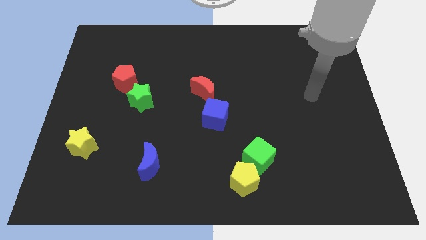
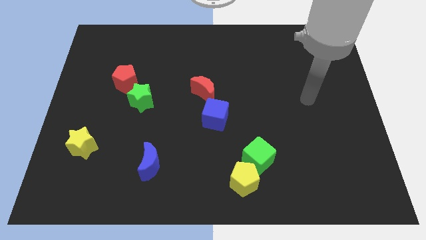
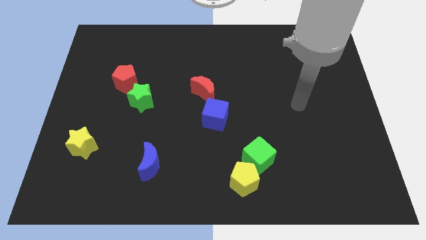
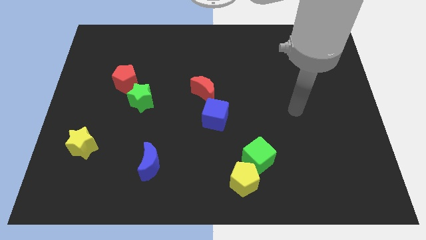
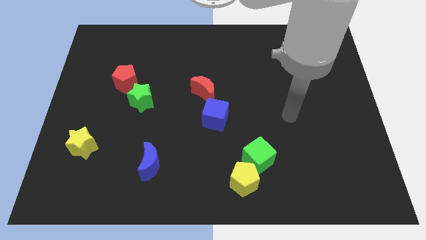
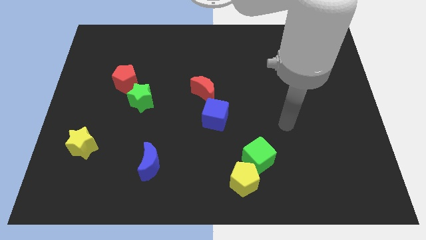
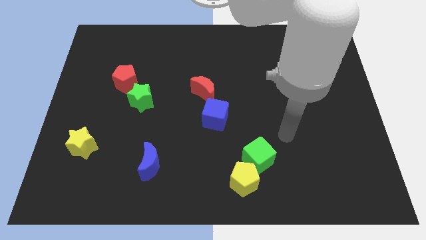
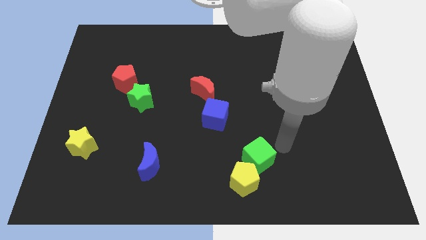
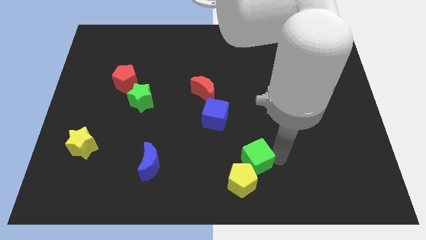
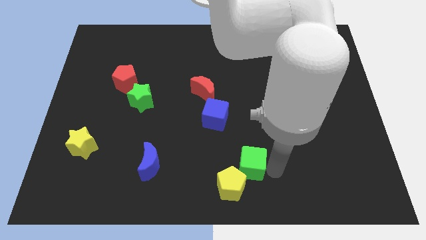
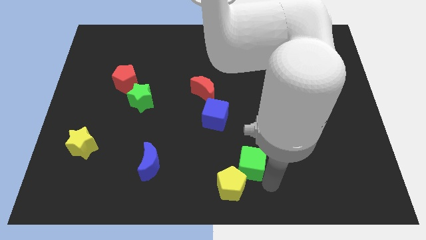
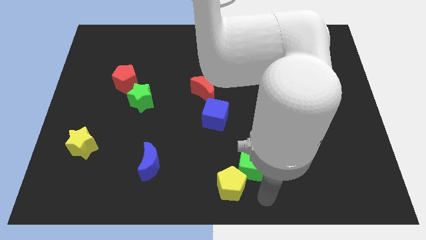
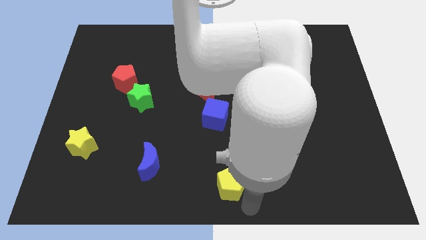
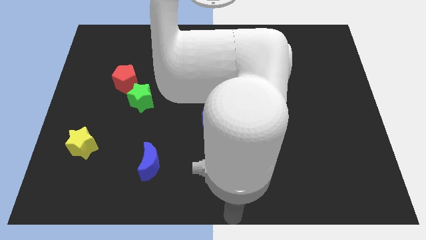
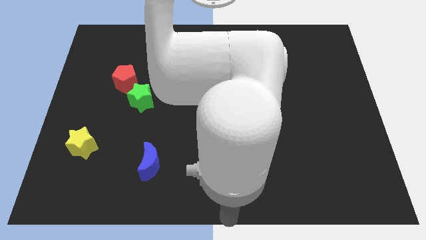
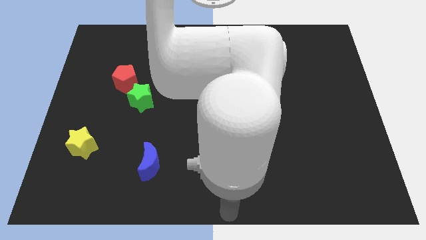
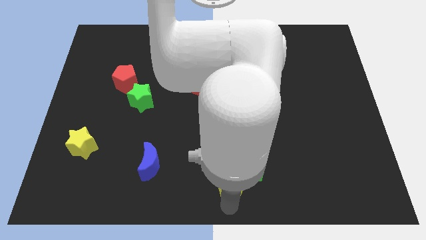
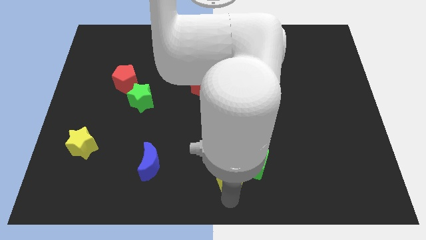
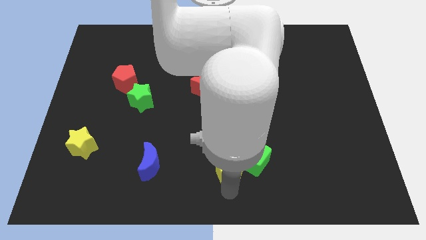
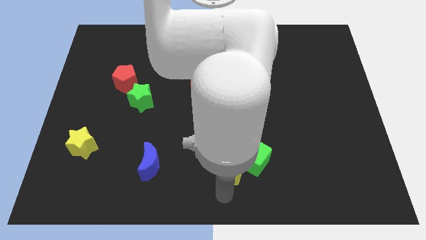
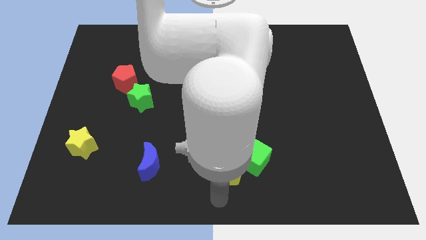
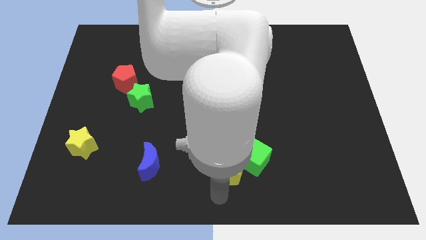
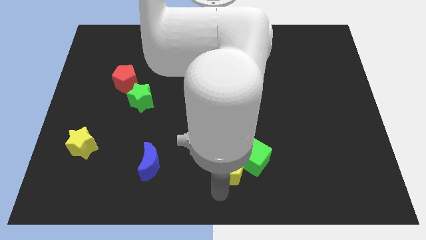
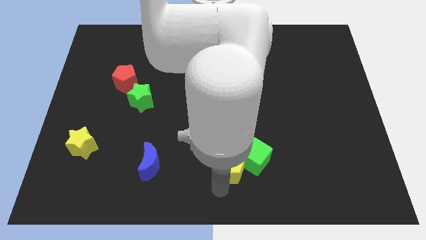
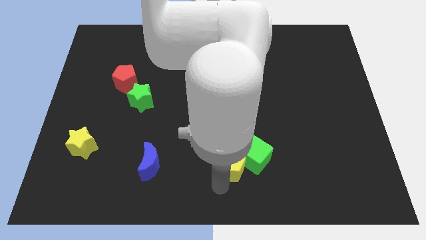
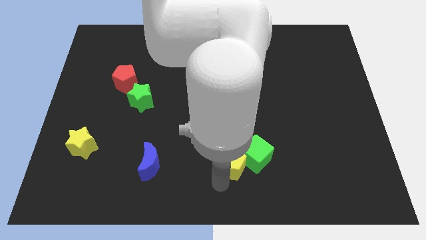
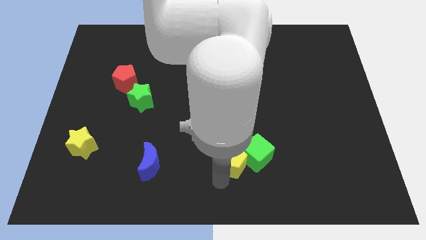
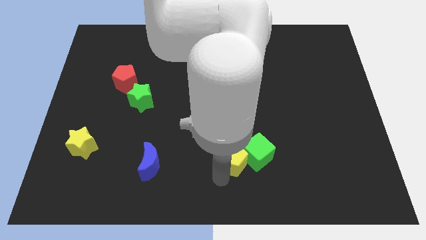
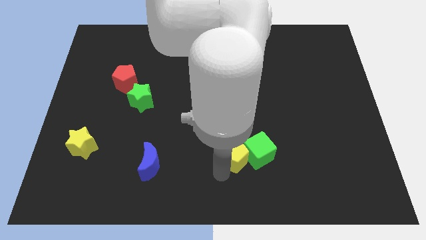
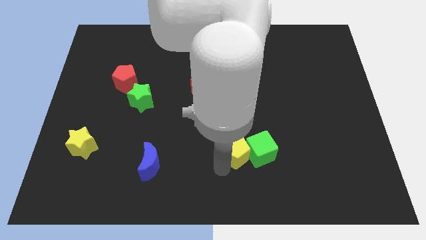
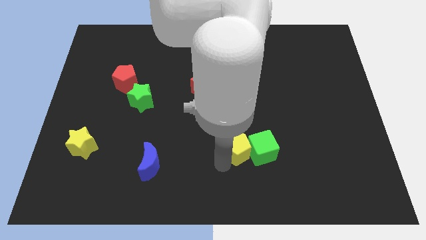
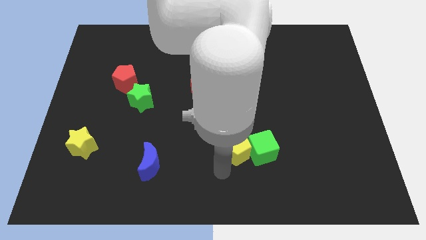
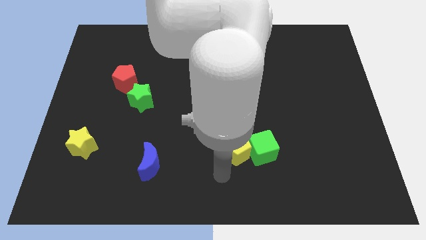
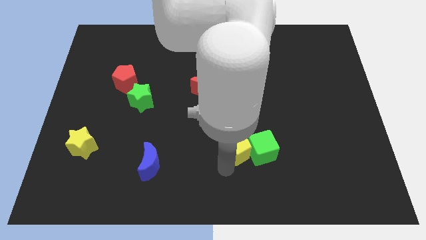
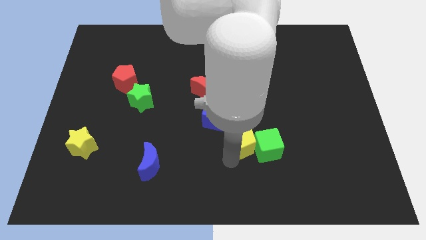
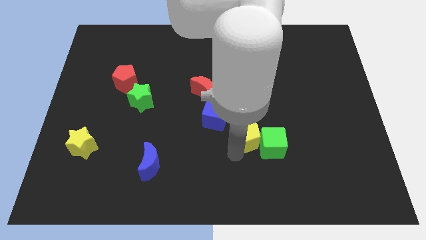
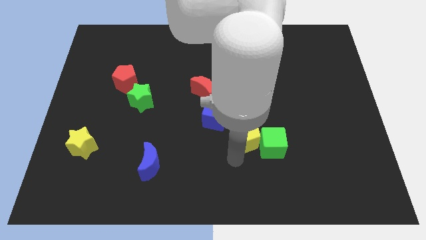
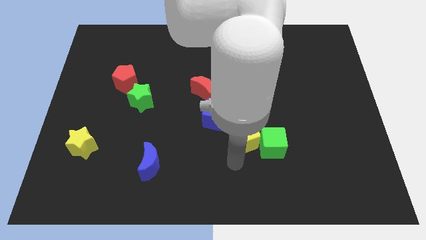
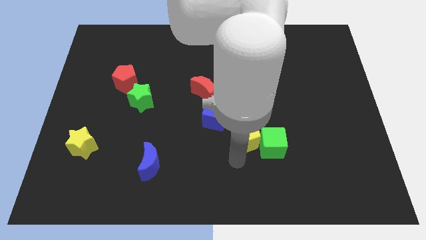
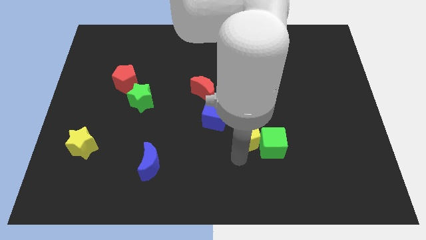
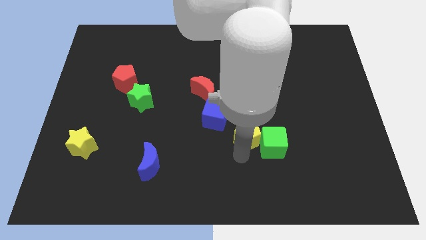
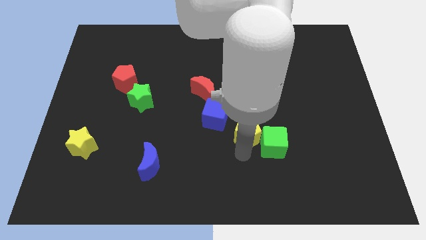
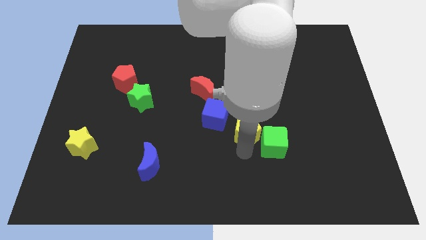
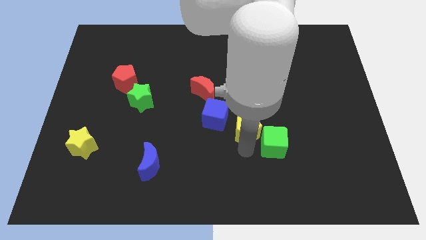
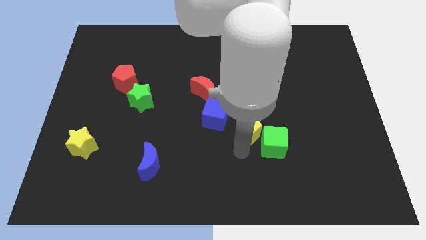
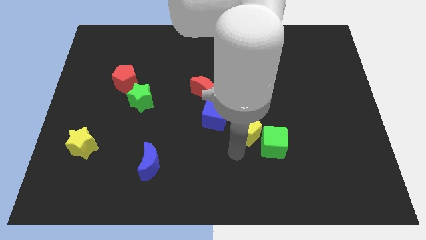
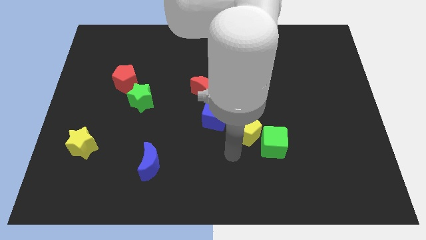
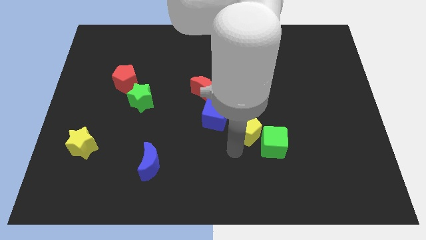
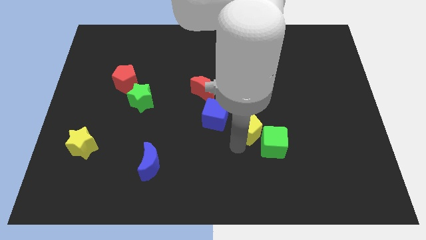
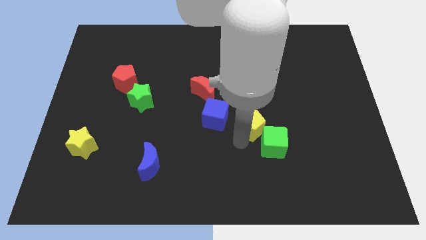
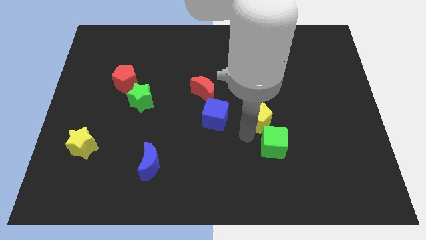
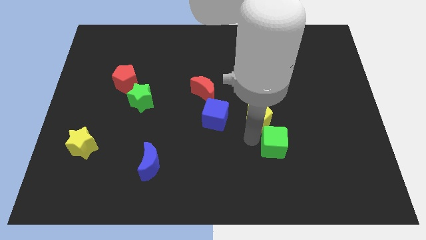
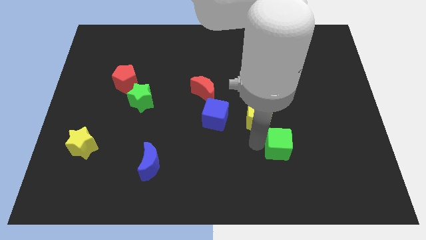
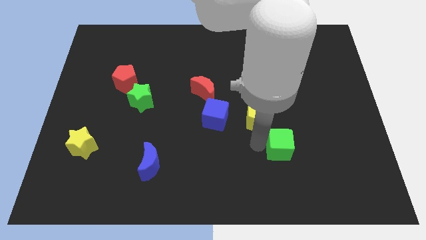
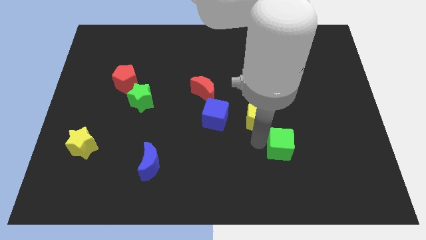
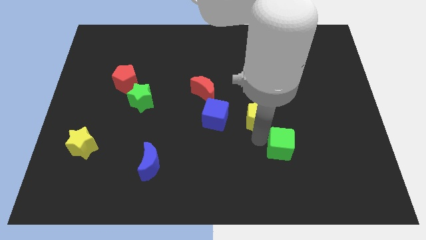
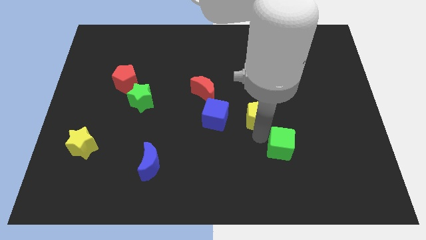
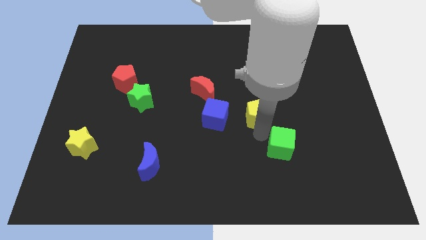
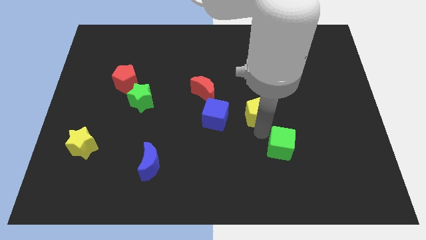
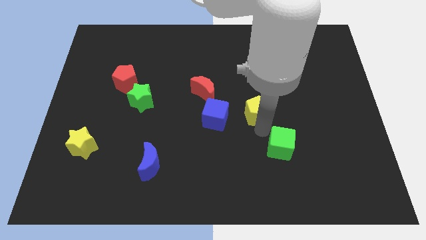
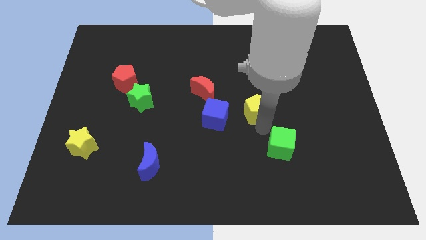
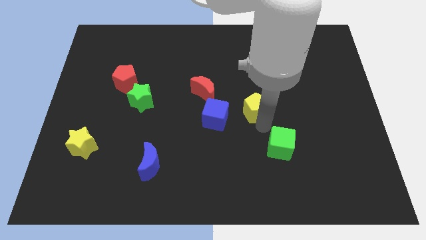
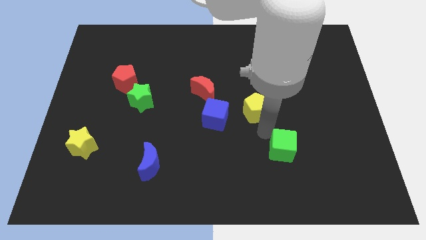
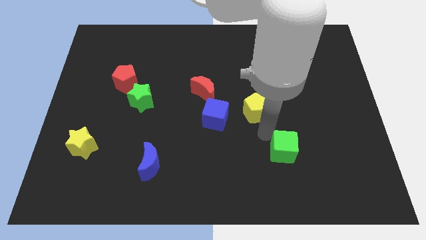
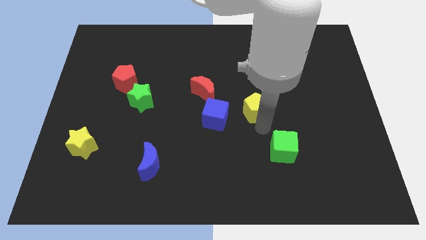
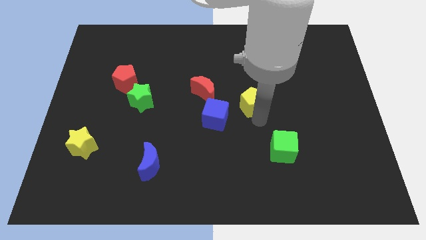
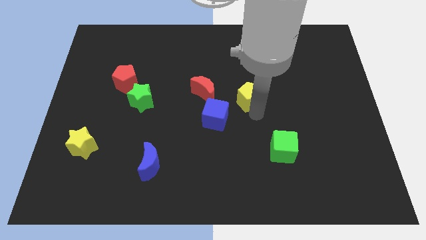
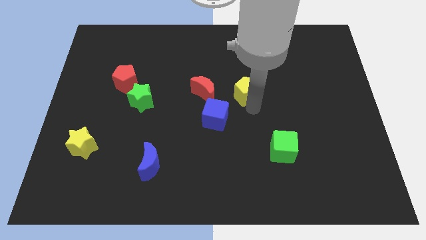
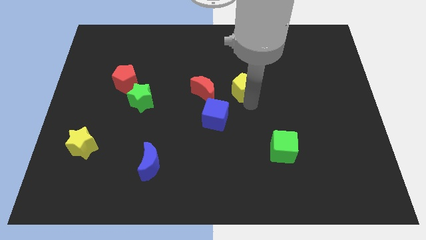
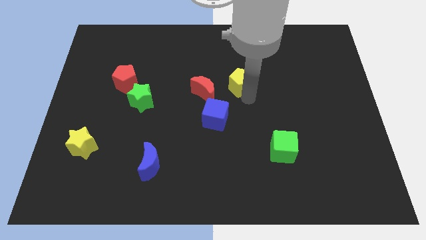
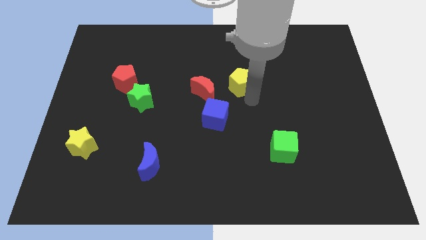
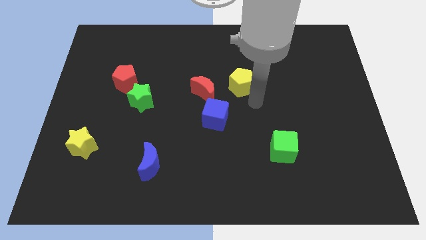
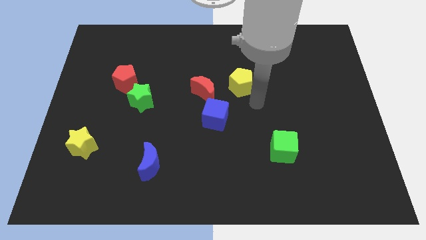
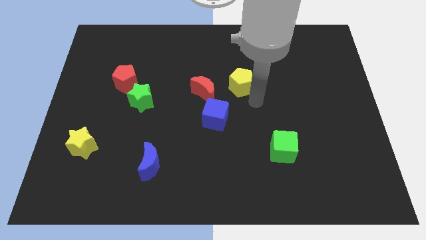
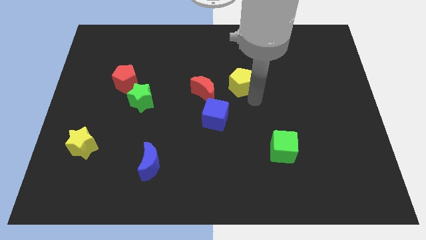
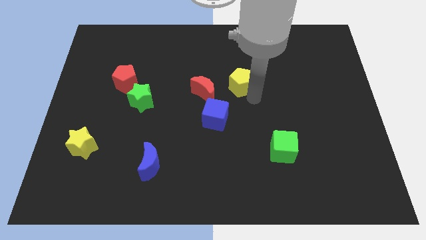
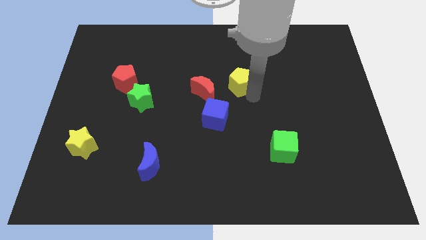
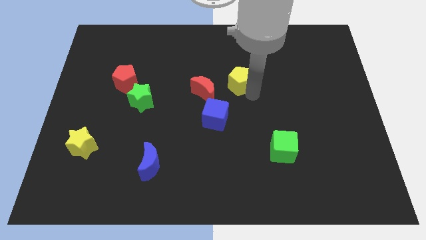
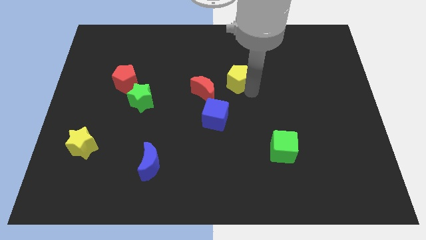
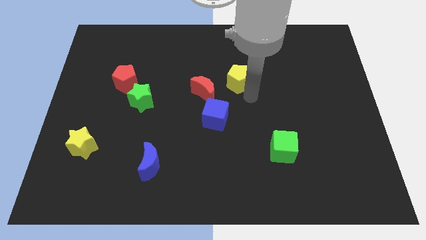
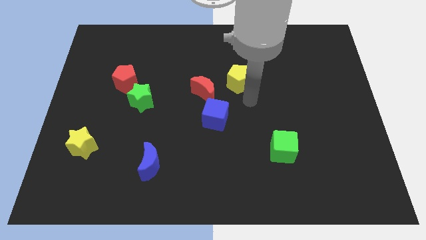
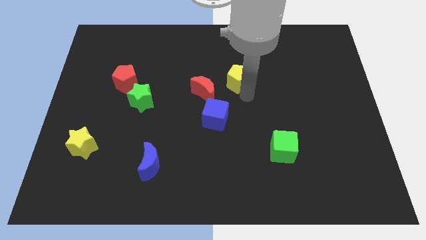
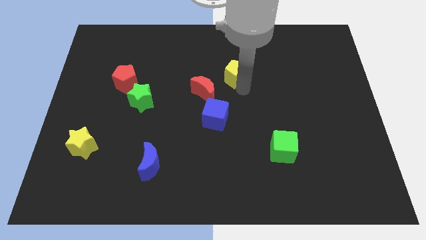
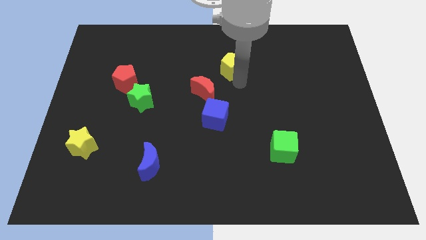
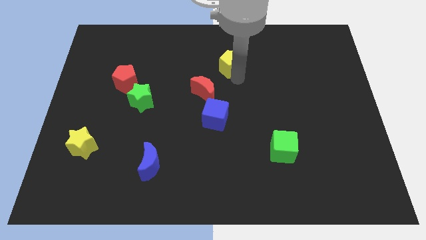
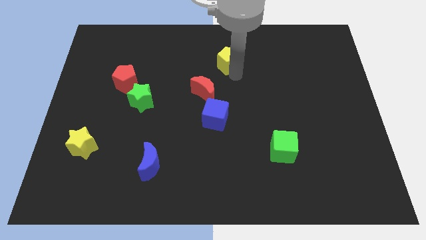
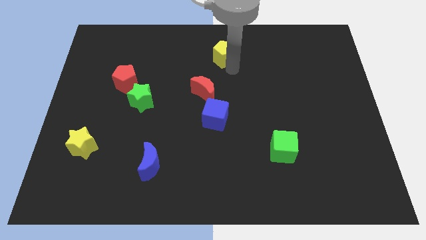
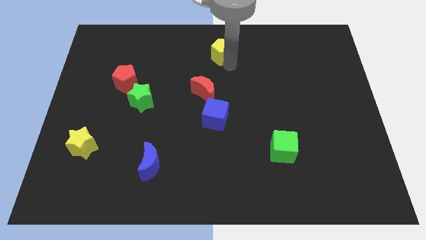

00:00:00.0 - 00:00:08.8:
slide the yellow pentagon to the top
